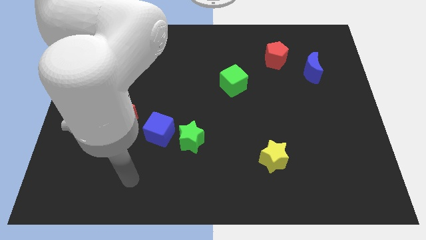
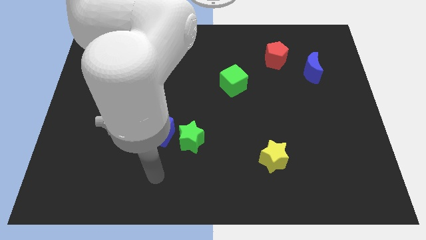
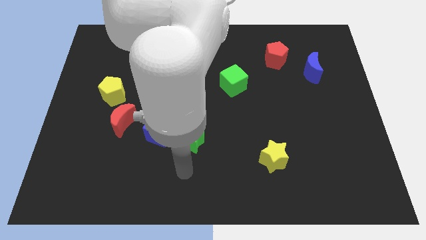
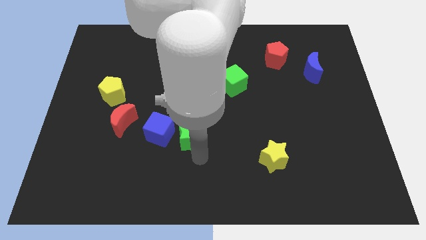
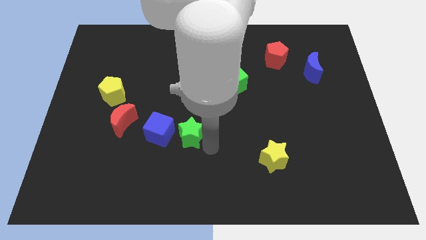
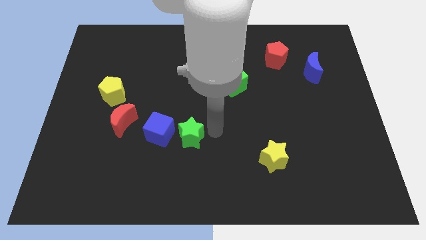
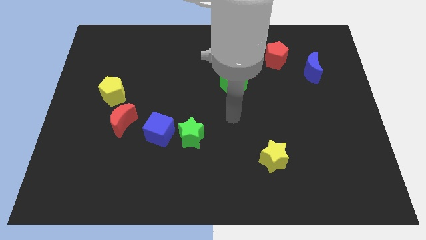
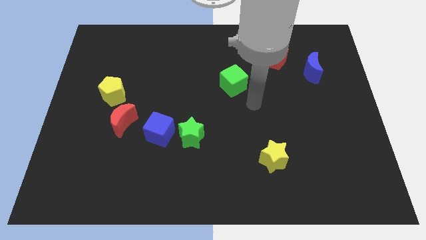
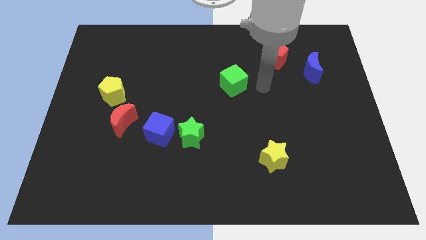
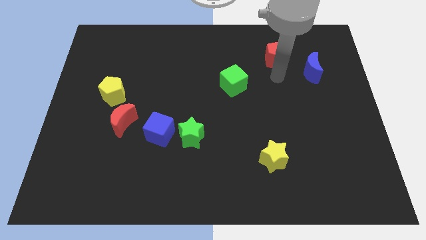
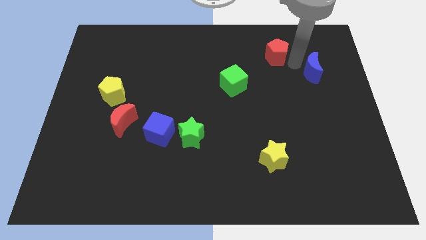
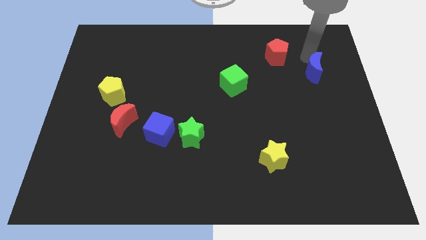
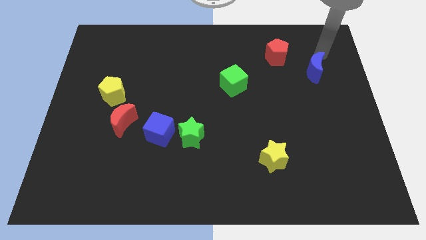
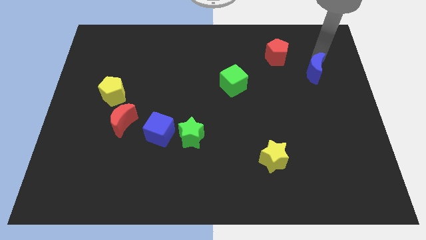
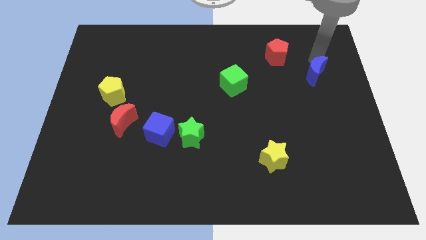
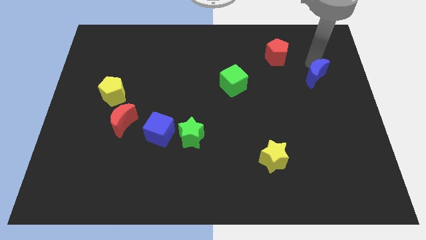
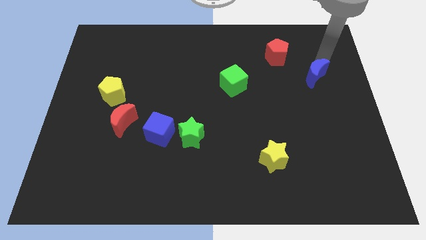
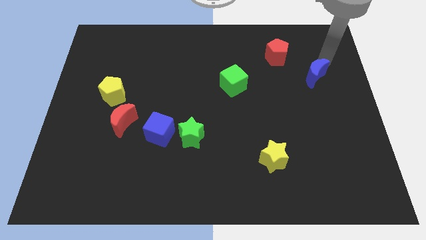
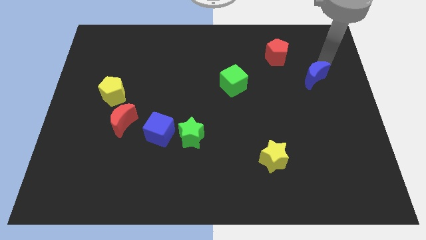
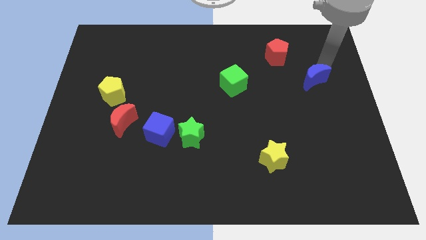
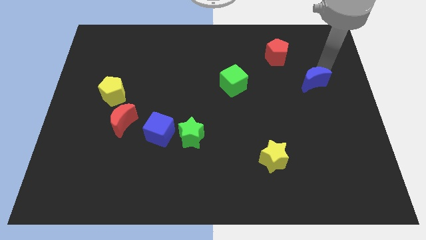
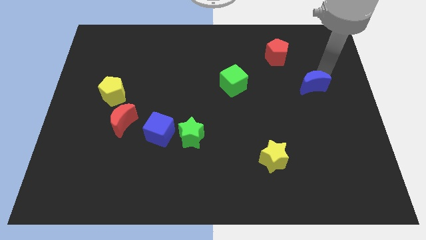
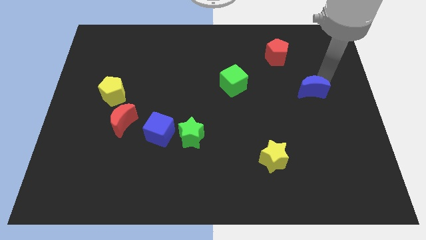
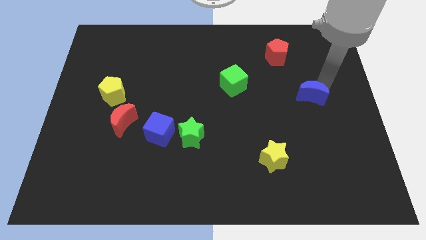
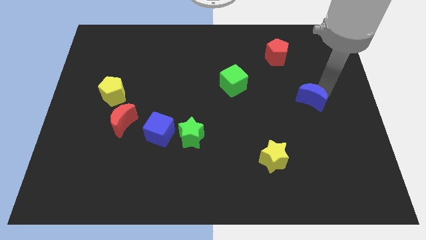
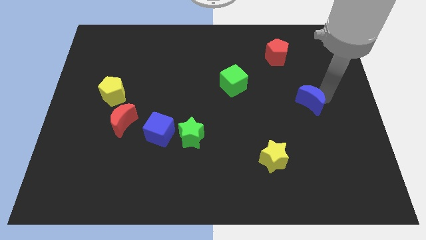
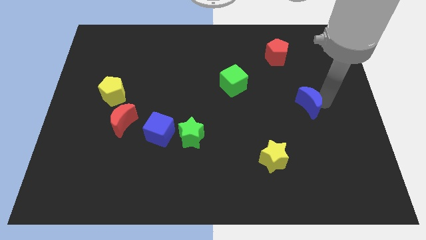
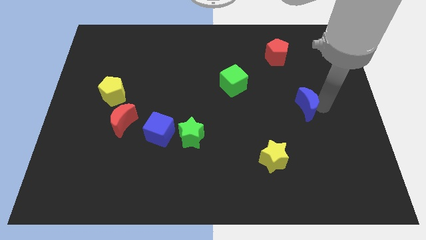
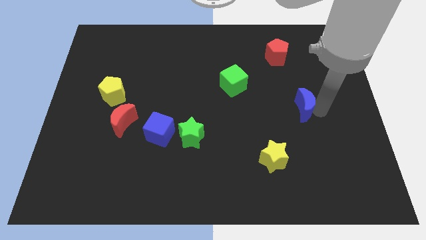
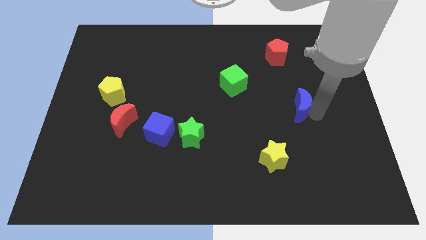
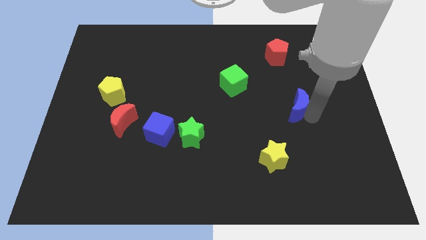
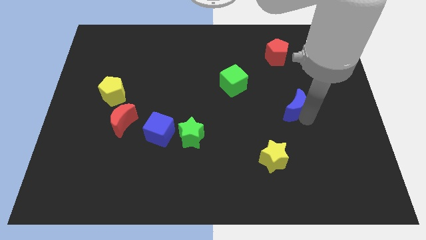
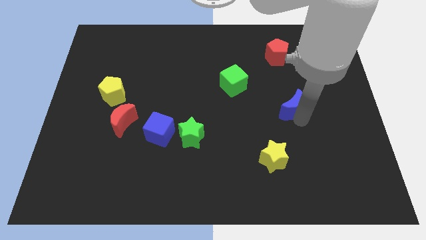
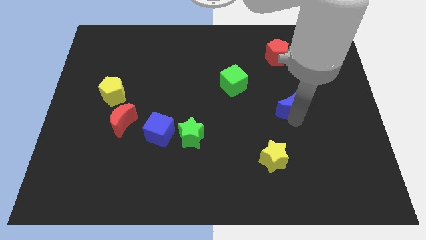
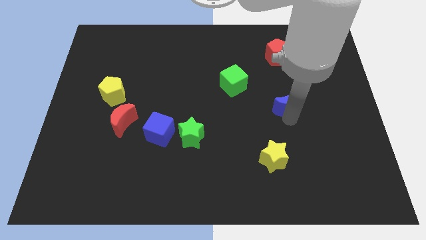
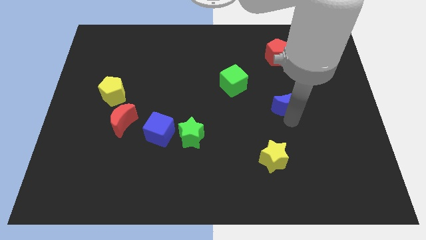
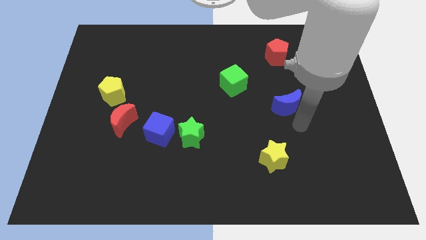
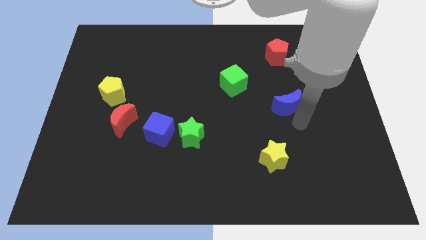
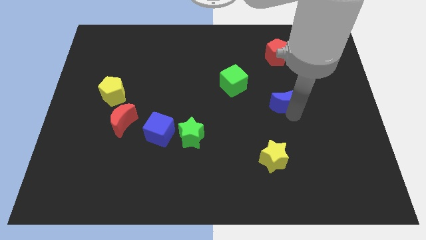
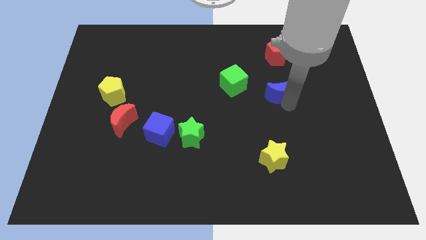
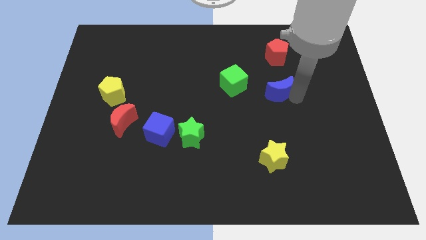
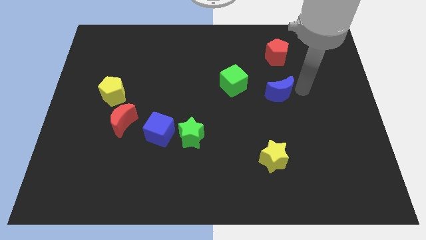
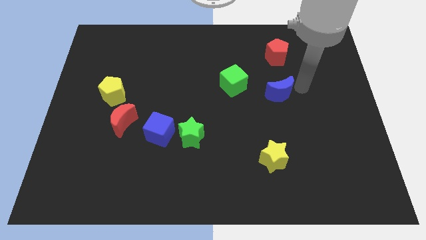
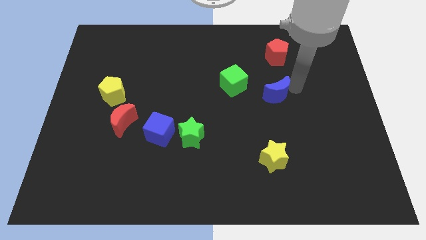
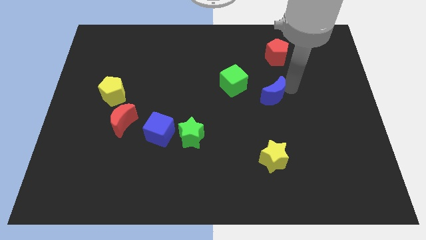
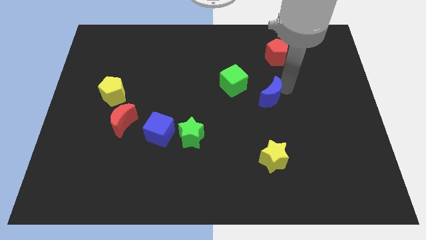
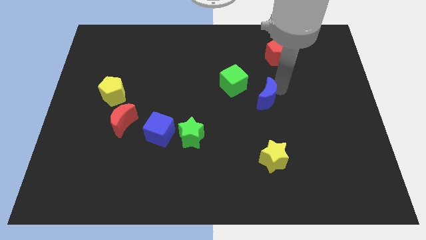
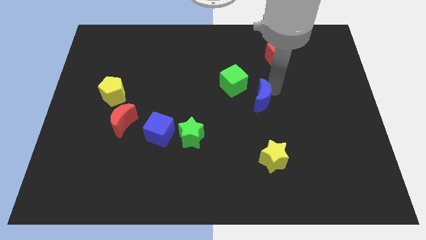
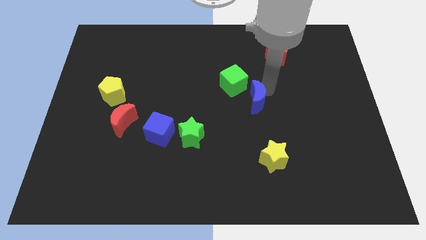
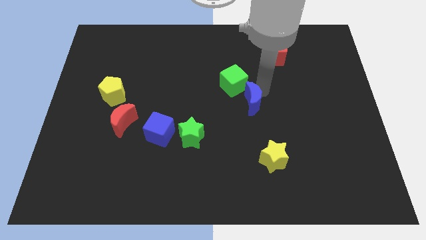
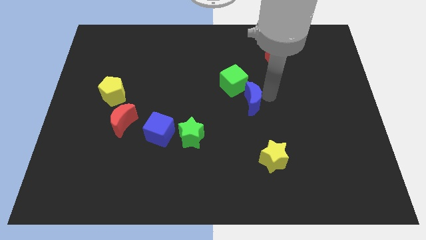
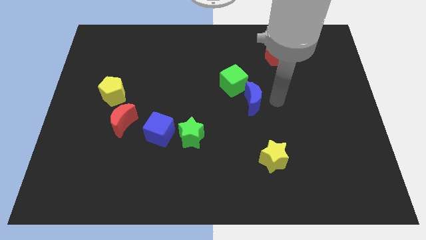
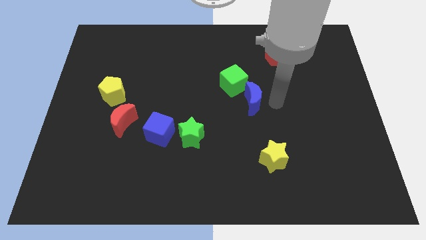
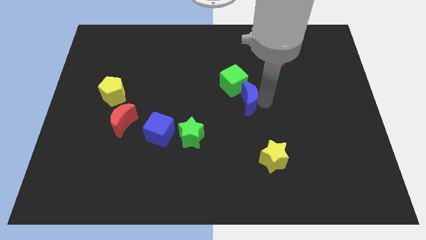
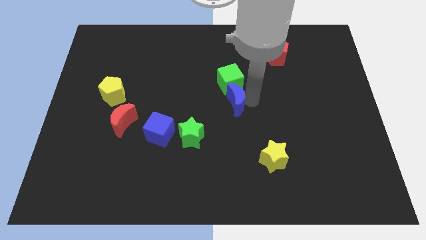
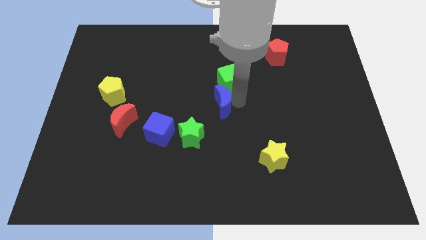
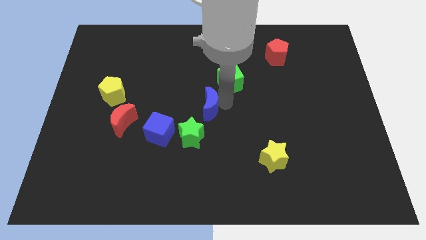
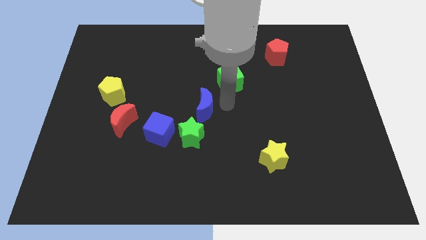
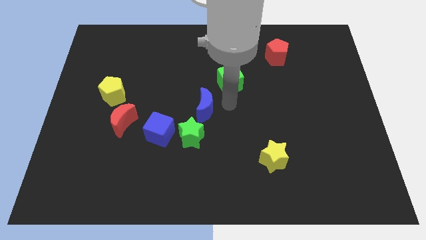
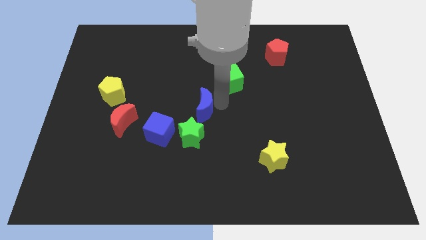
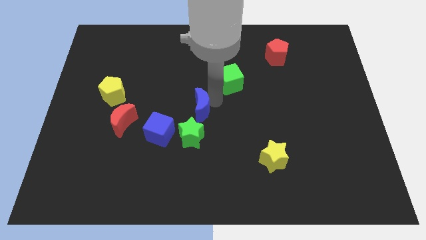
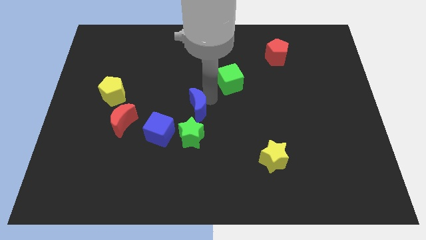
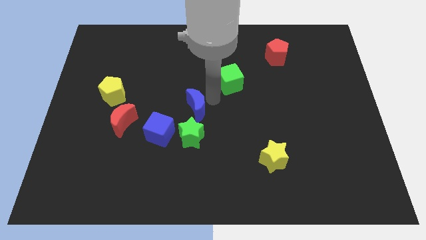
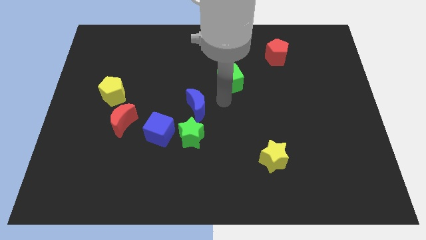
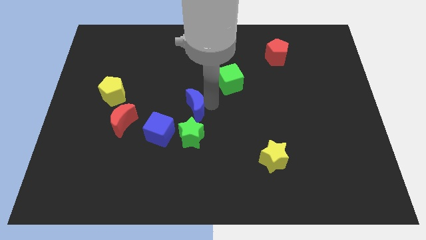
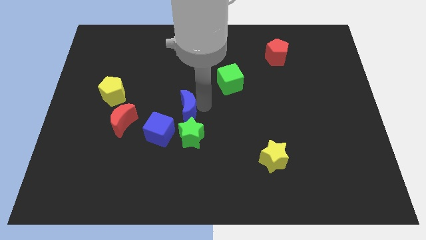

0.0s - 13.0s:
slide the blue moon to the top left of the green star
